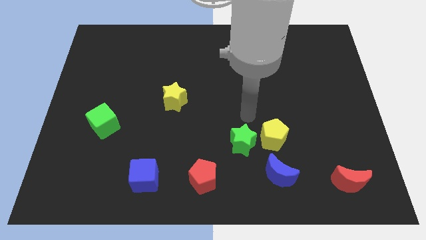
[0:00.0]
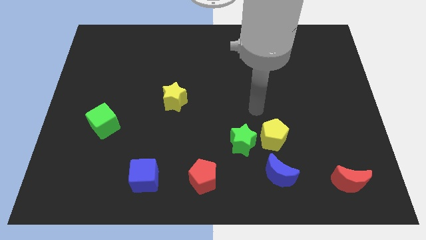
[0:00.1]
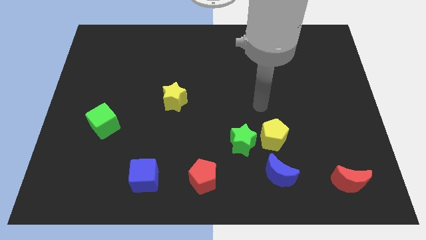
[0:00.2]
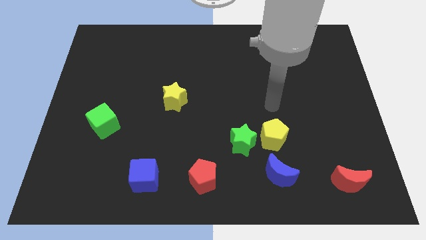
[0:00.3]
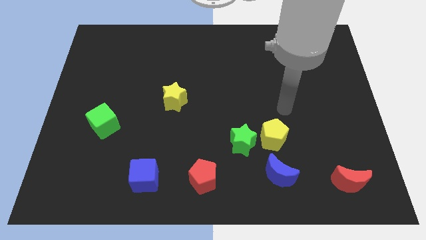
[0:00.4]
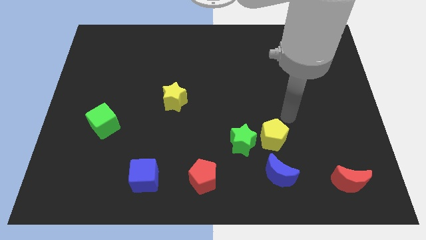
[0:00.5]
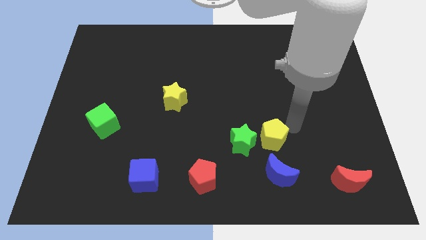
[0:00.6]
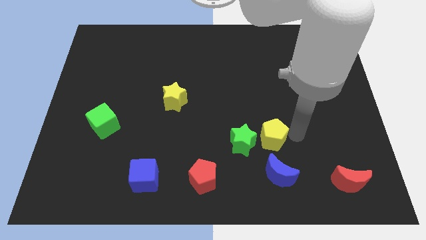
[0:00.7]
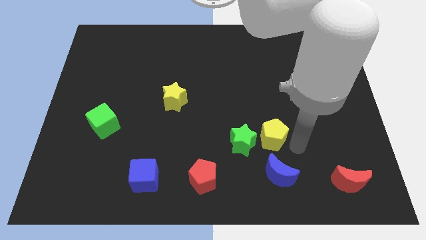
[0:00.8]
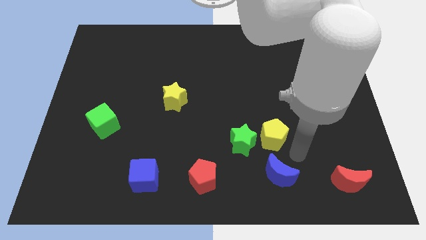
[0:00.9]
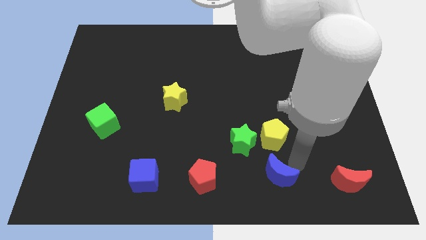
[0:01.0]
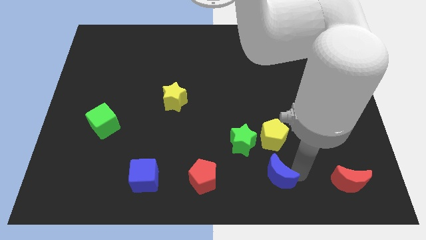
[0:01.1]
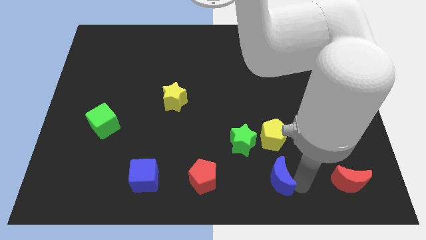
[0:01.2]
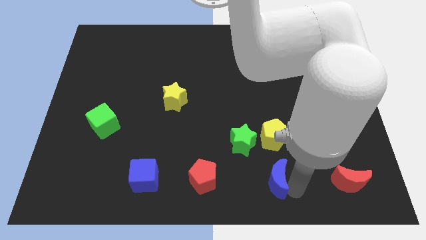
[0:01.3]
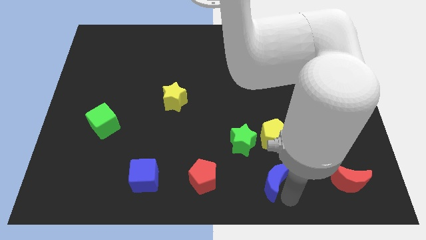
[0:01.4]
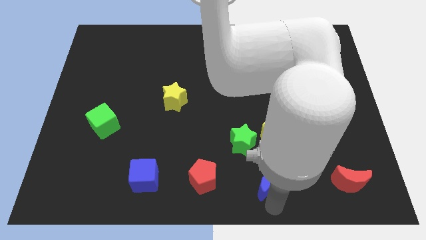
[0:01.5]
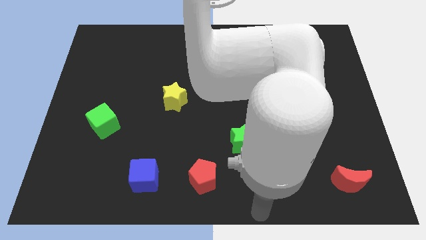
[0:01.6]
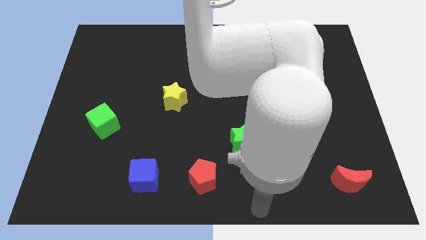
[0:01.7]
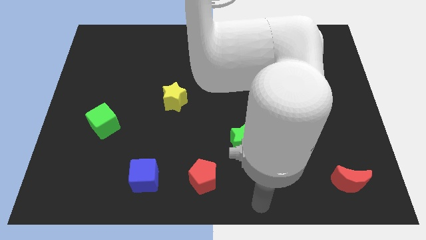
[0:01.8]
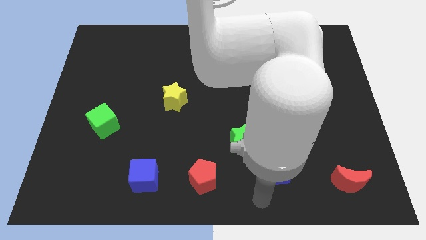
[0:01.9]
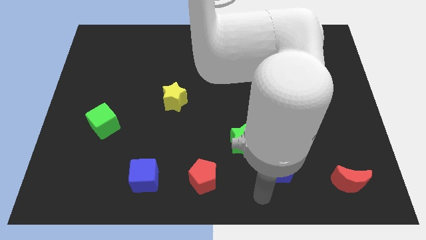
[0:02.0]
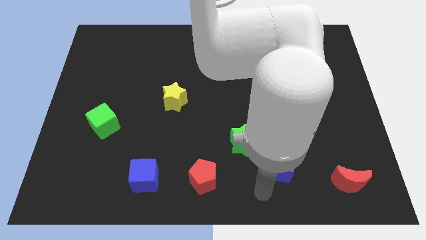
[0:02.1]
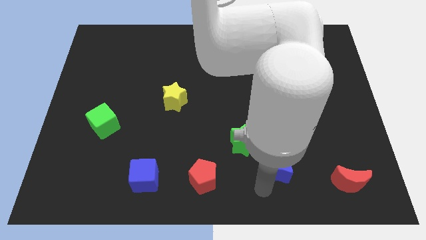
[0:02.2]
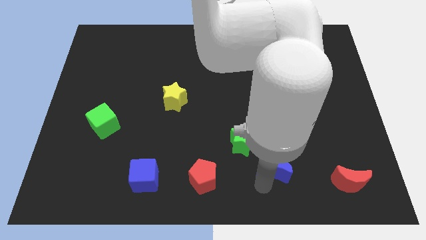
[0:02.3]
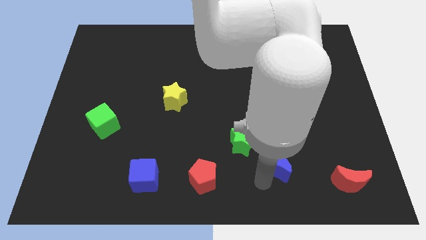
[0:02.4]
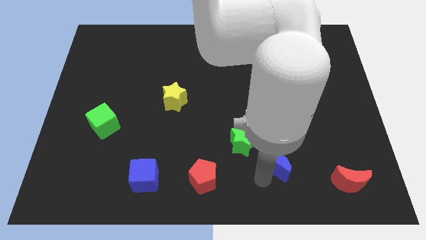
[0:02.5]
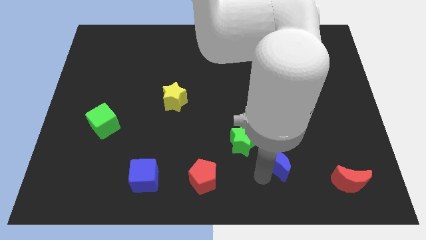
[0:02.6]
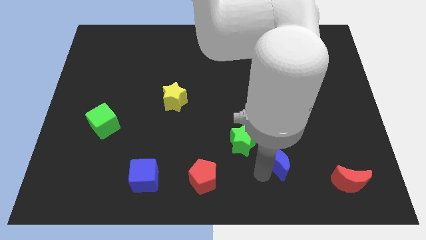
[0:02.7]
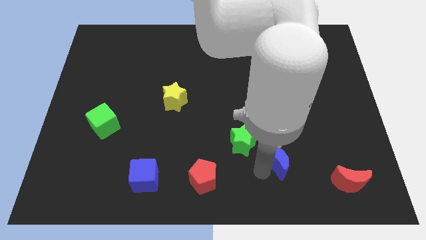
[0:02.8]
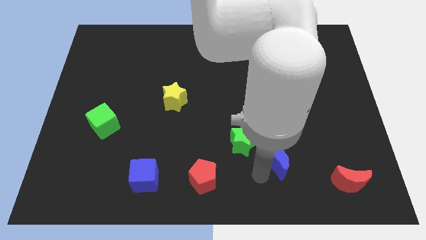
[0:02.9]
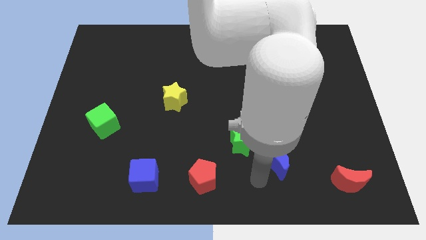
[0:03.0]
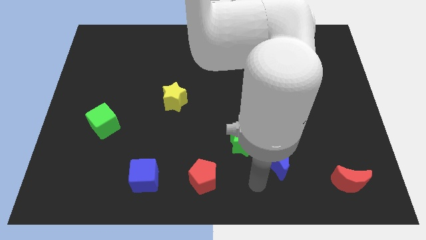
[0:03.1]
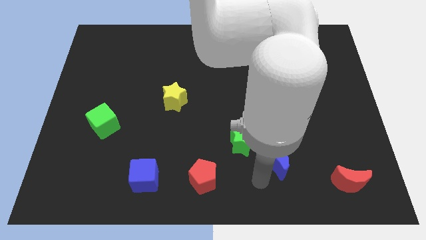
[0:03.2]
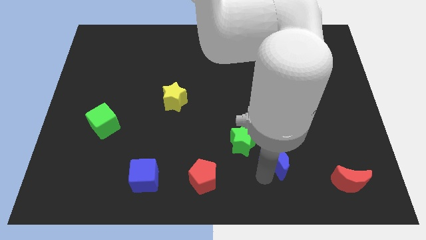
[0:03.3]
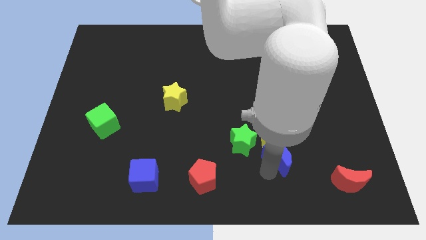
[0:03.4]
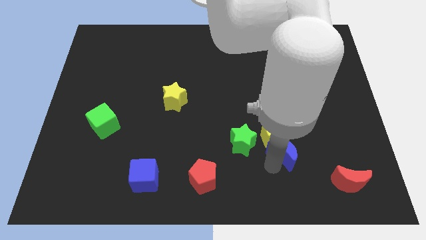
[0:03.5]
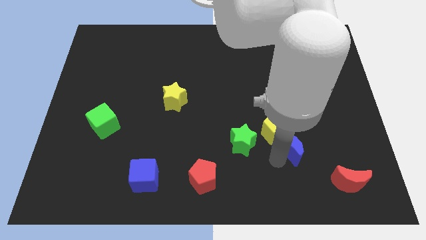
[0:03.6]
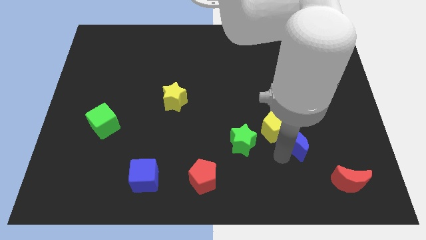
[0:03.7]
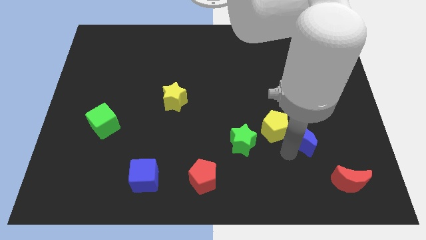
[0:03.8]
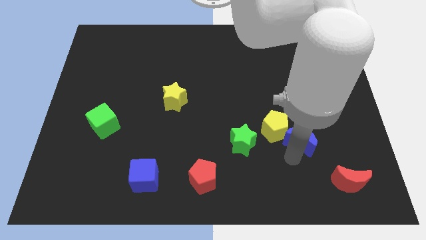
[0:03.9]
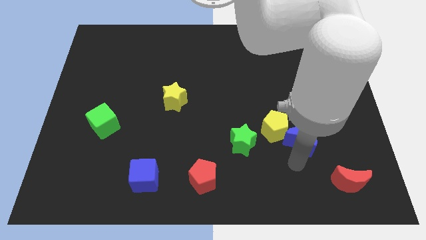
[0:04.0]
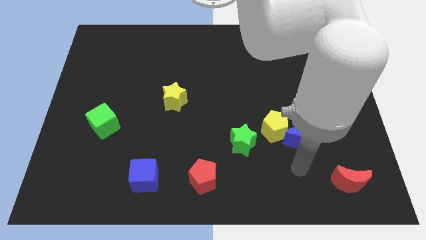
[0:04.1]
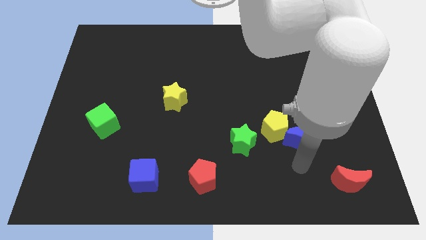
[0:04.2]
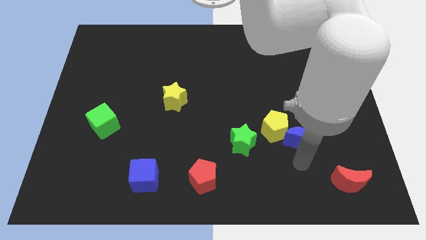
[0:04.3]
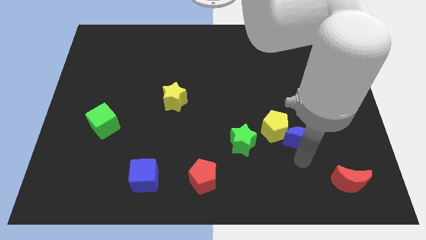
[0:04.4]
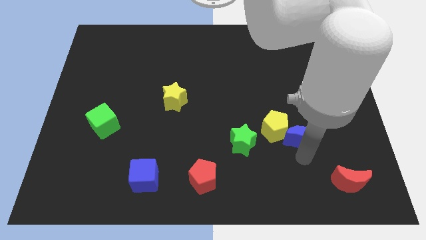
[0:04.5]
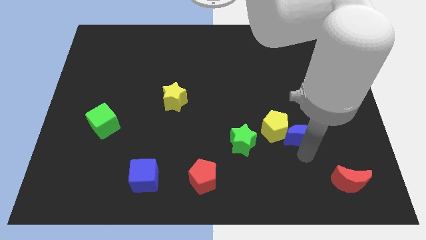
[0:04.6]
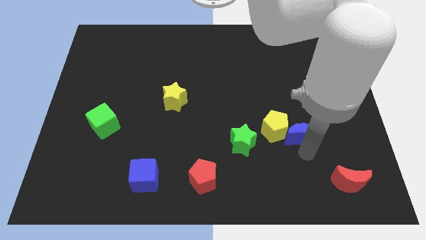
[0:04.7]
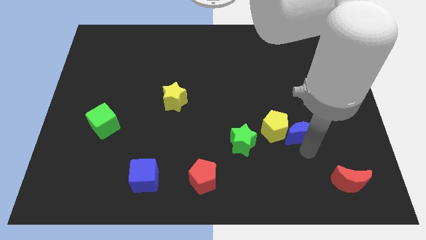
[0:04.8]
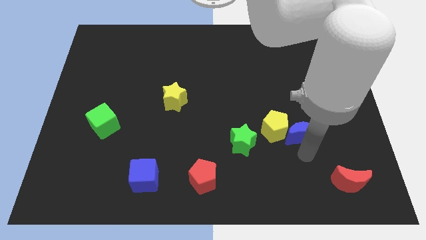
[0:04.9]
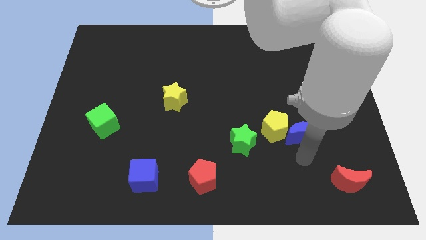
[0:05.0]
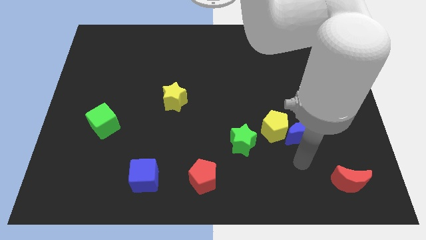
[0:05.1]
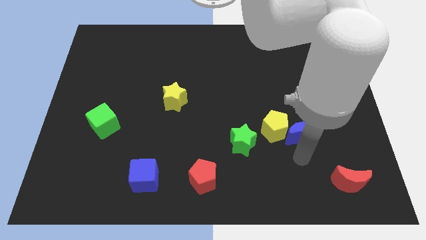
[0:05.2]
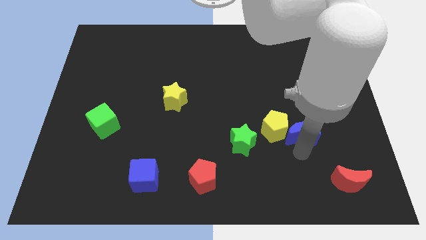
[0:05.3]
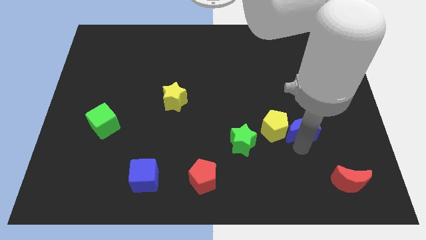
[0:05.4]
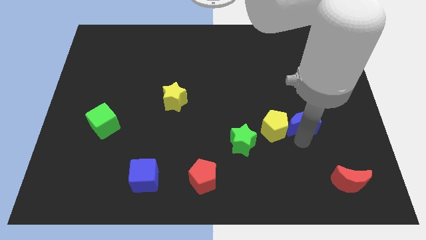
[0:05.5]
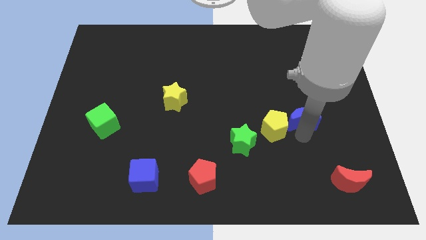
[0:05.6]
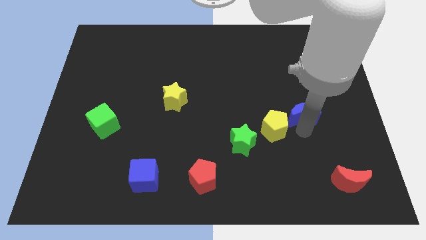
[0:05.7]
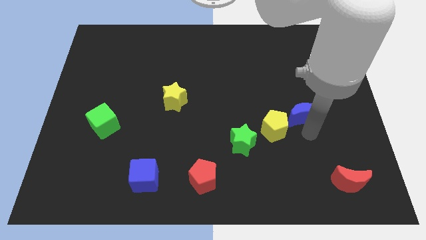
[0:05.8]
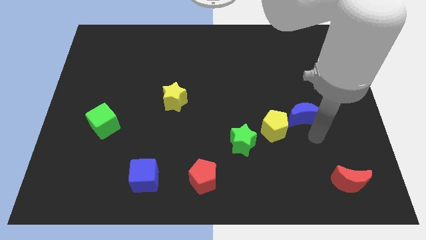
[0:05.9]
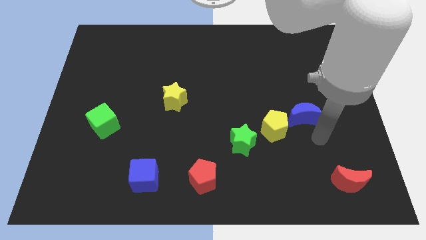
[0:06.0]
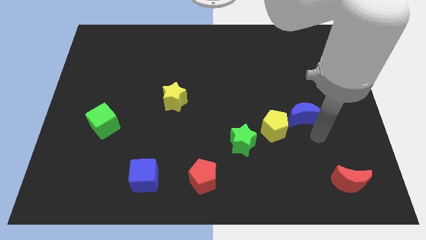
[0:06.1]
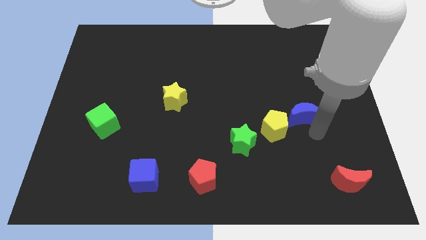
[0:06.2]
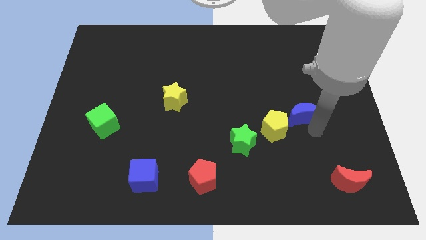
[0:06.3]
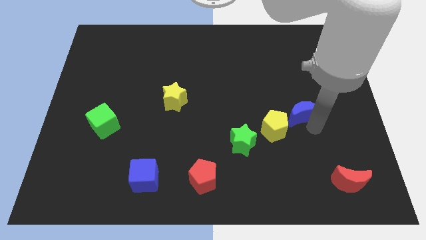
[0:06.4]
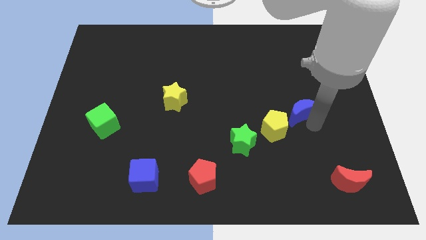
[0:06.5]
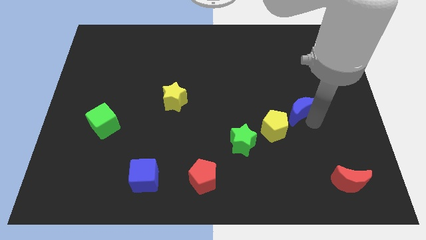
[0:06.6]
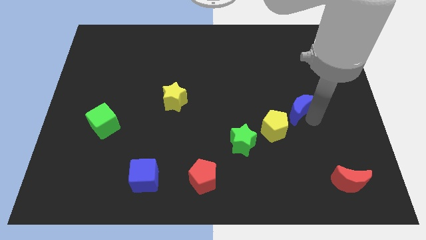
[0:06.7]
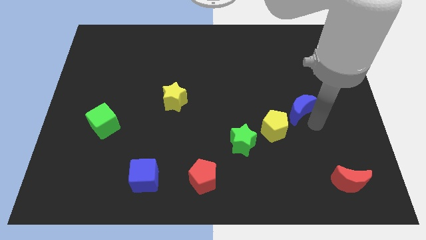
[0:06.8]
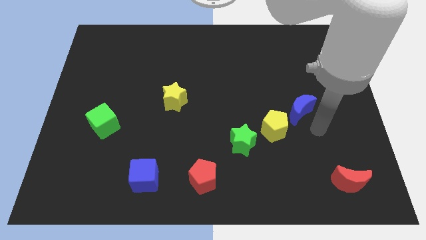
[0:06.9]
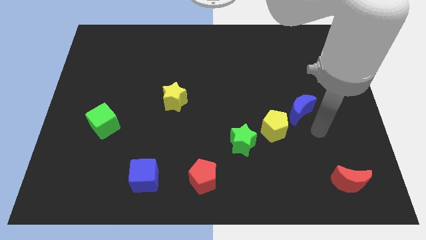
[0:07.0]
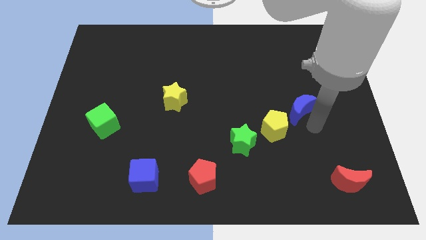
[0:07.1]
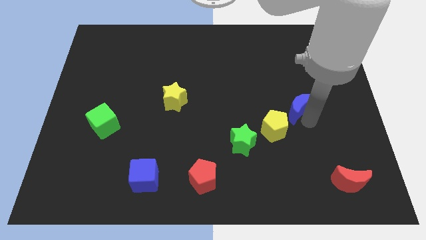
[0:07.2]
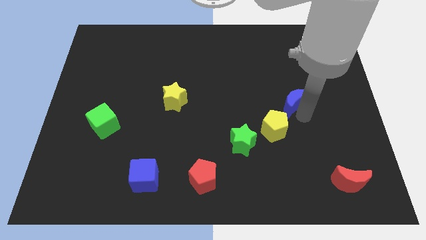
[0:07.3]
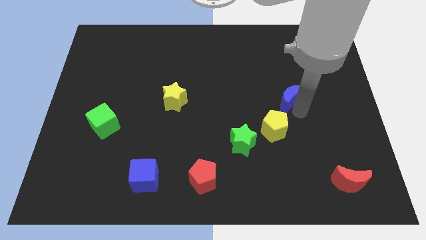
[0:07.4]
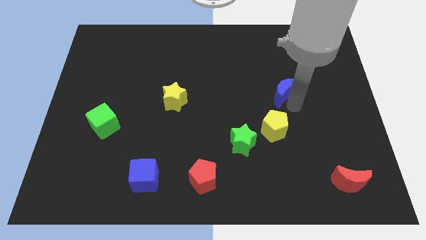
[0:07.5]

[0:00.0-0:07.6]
slide the blue moon upwards

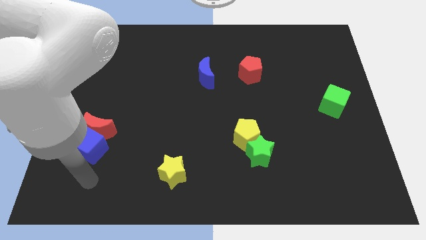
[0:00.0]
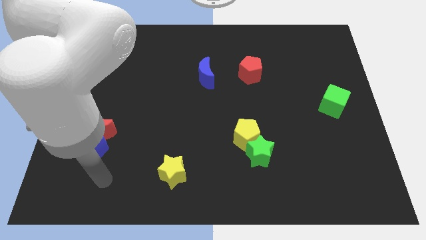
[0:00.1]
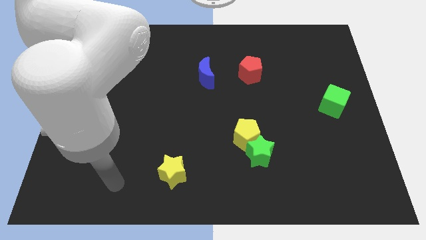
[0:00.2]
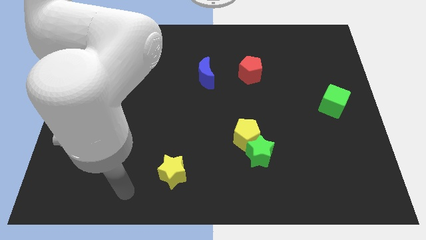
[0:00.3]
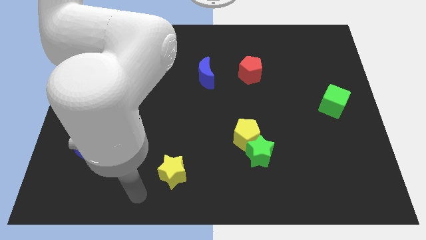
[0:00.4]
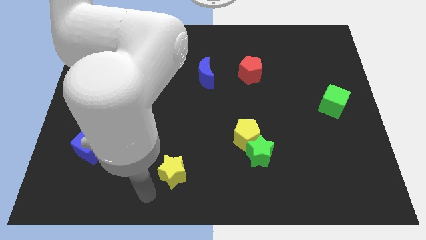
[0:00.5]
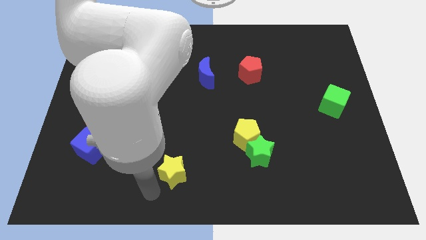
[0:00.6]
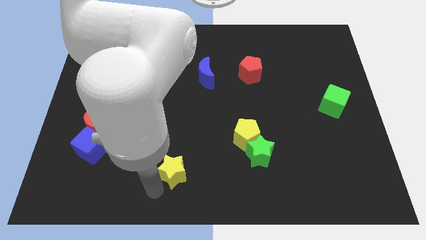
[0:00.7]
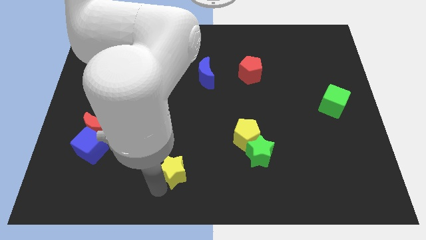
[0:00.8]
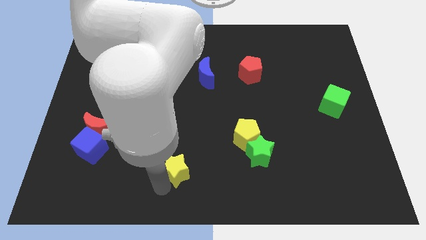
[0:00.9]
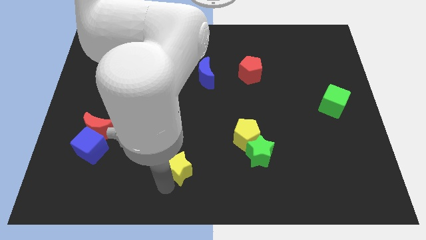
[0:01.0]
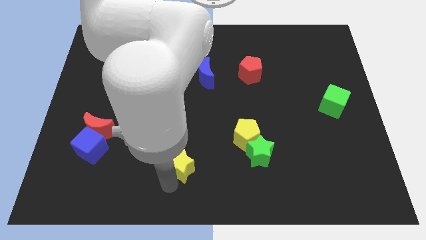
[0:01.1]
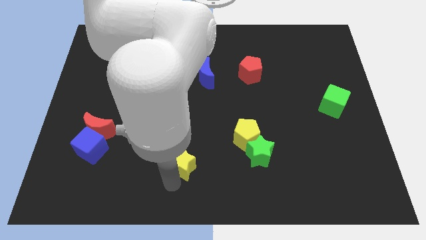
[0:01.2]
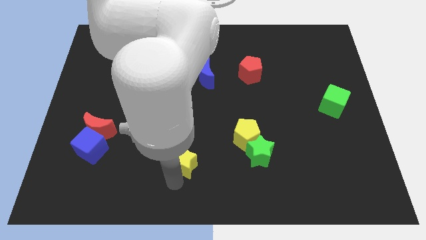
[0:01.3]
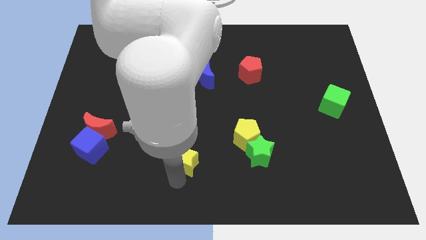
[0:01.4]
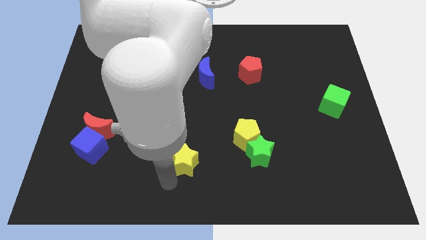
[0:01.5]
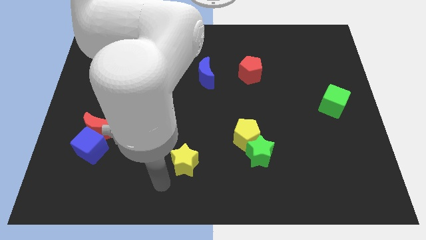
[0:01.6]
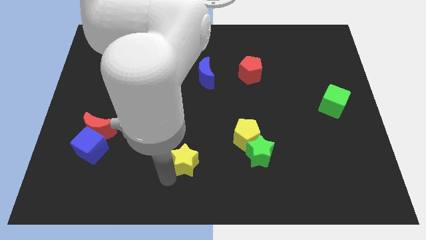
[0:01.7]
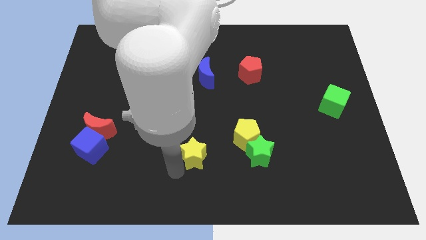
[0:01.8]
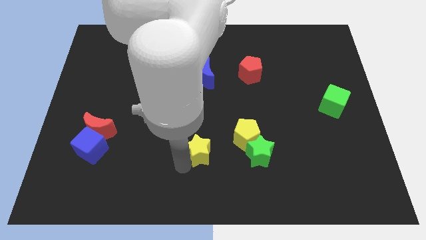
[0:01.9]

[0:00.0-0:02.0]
move the yellow star slightly diagonally upwards and right
